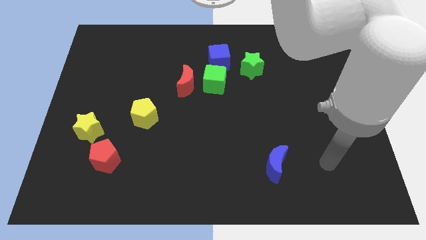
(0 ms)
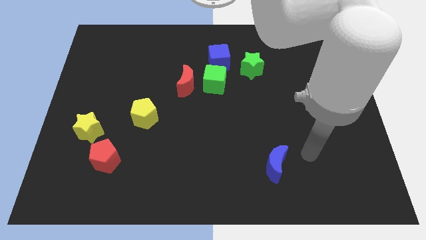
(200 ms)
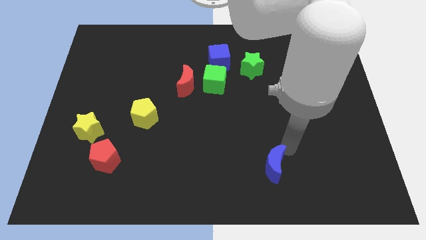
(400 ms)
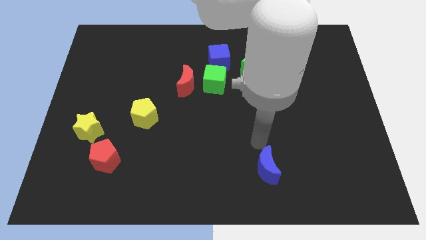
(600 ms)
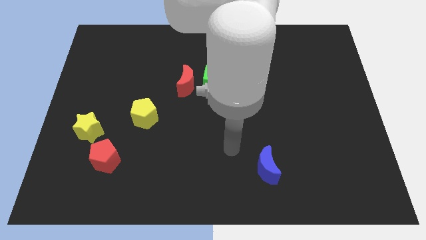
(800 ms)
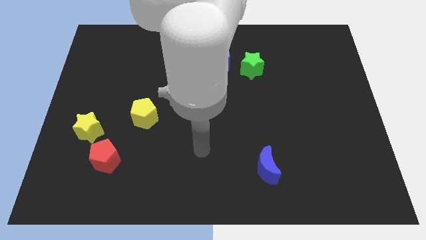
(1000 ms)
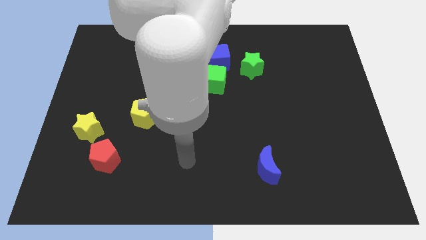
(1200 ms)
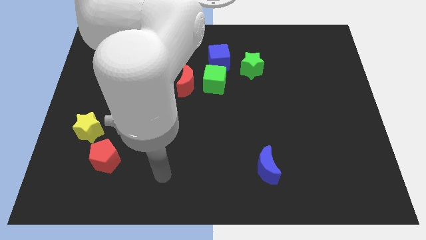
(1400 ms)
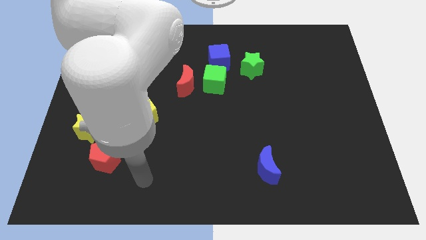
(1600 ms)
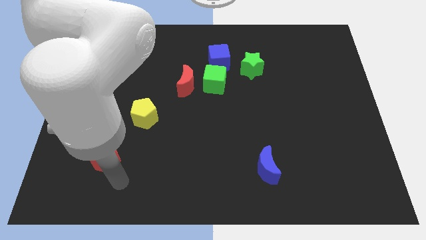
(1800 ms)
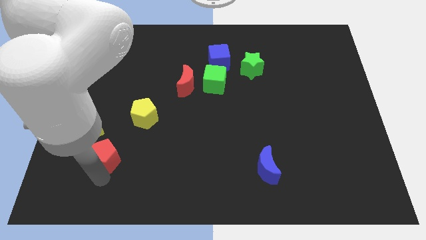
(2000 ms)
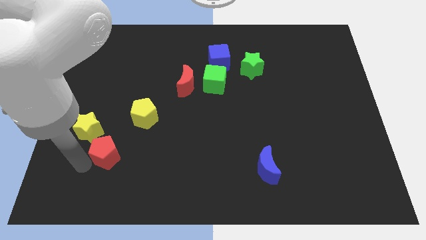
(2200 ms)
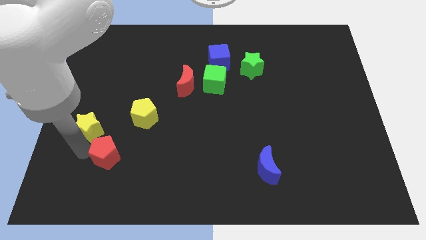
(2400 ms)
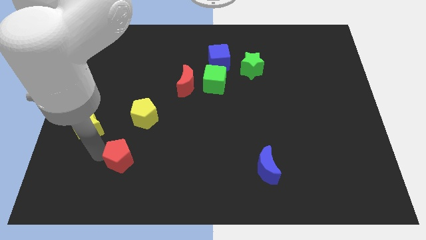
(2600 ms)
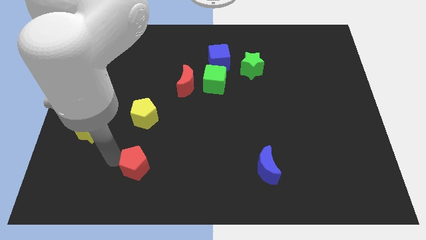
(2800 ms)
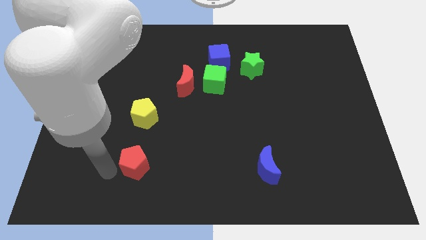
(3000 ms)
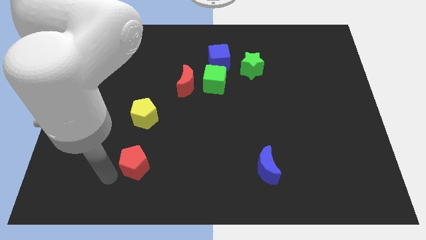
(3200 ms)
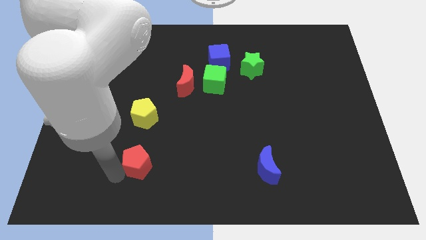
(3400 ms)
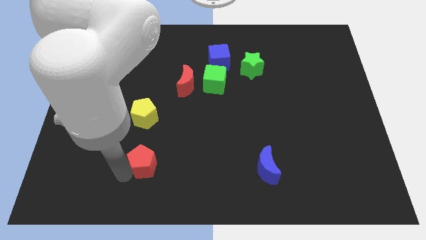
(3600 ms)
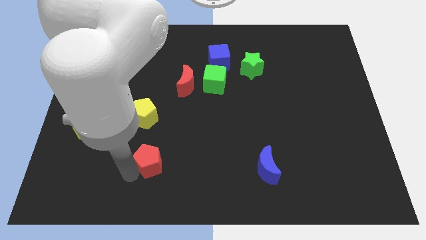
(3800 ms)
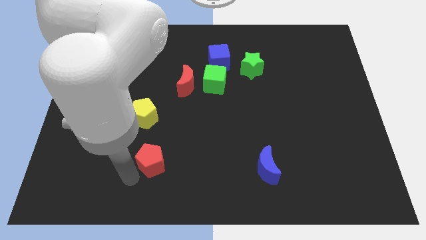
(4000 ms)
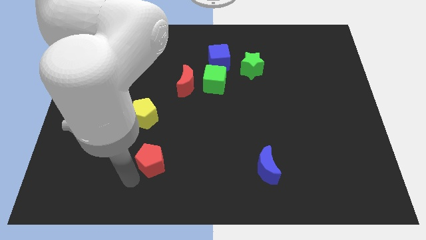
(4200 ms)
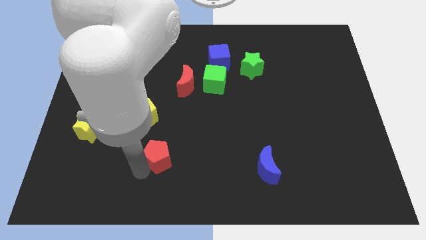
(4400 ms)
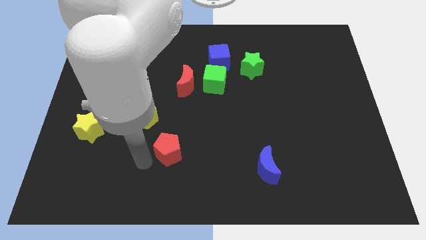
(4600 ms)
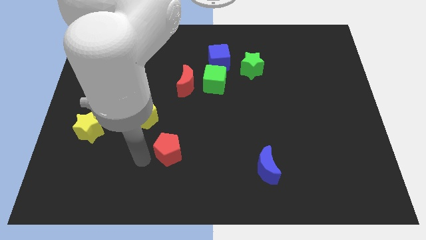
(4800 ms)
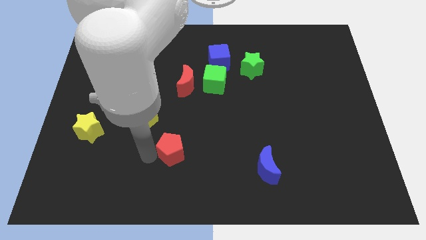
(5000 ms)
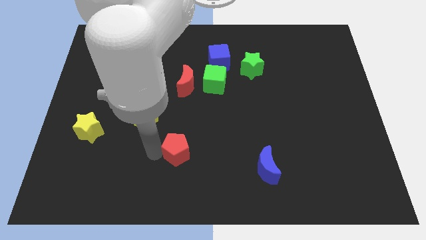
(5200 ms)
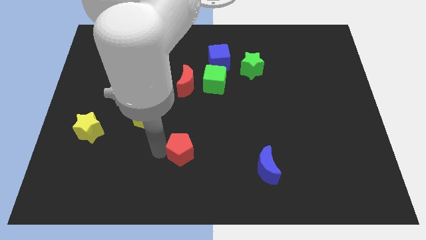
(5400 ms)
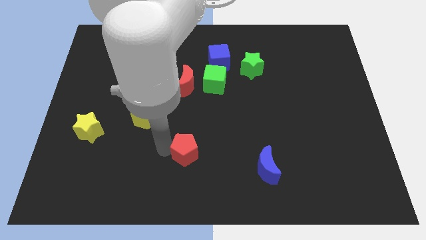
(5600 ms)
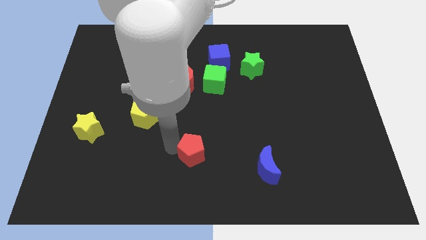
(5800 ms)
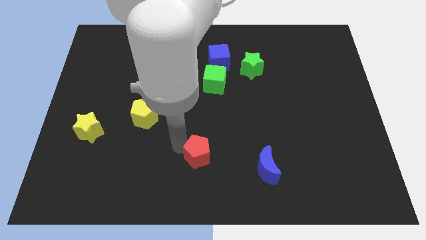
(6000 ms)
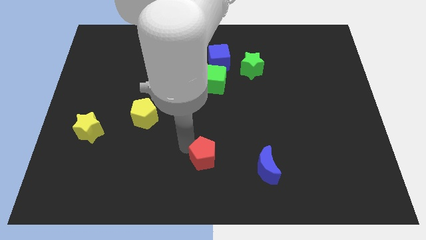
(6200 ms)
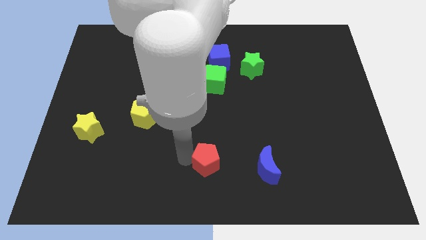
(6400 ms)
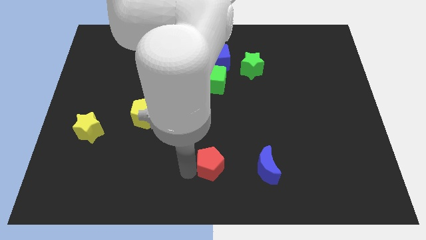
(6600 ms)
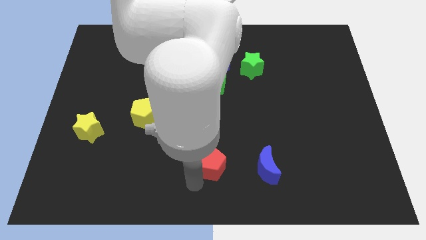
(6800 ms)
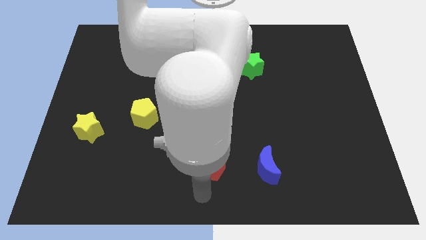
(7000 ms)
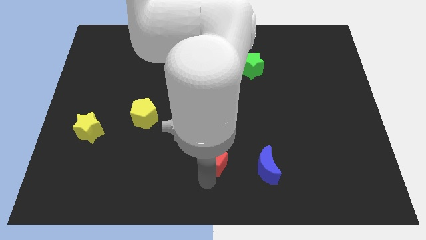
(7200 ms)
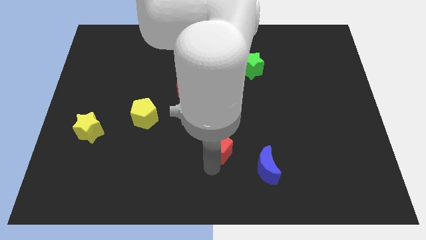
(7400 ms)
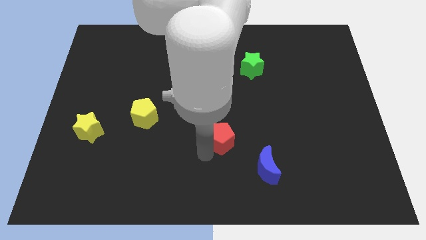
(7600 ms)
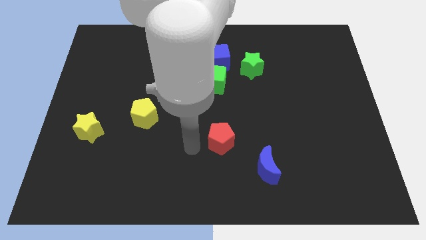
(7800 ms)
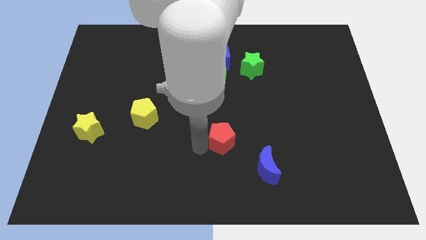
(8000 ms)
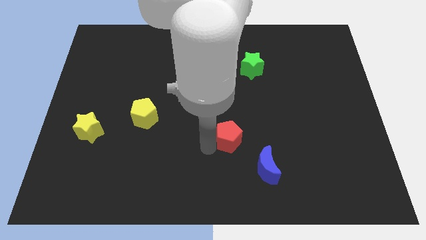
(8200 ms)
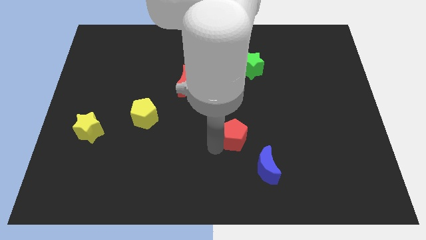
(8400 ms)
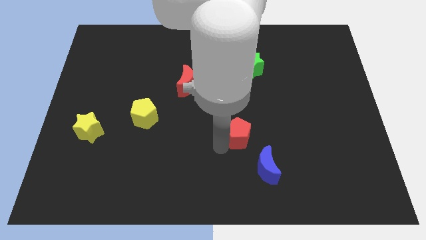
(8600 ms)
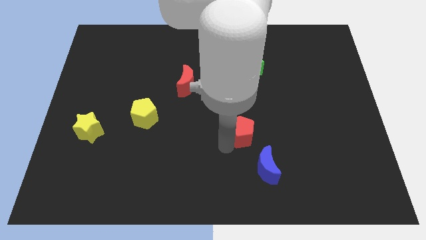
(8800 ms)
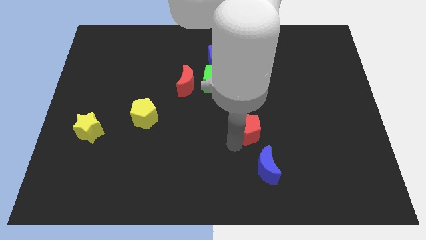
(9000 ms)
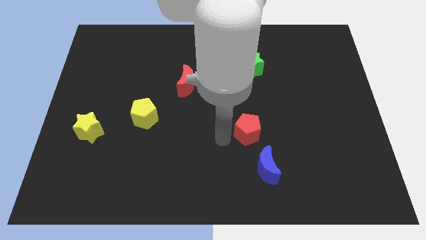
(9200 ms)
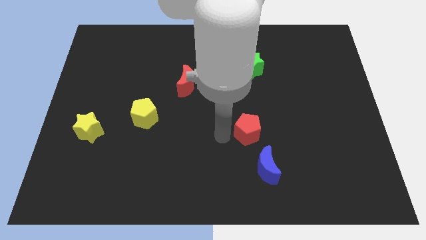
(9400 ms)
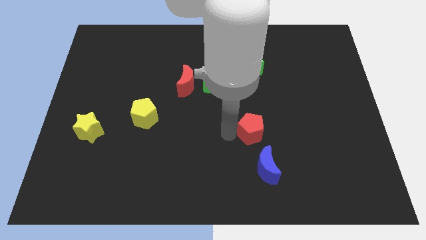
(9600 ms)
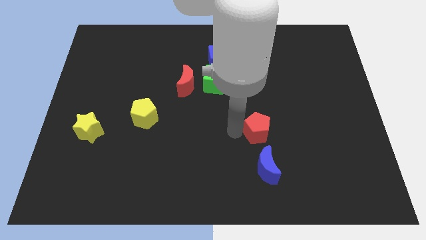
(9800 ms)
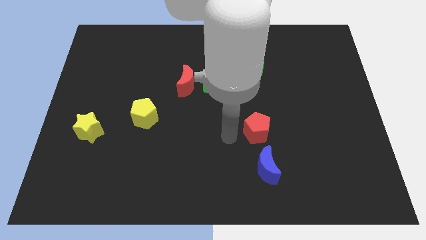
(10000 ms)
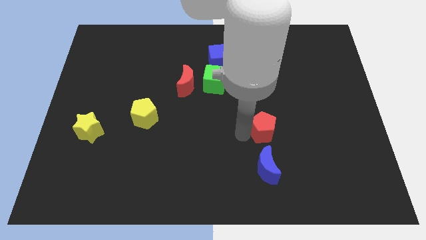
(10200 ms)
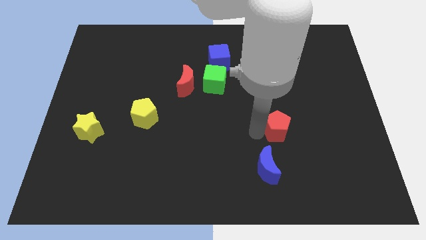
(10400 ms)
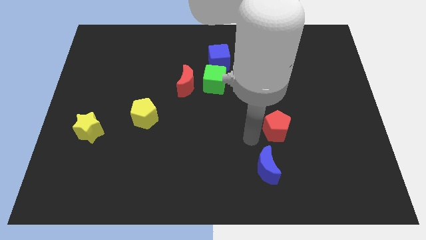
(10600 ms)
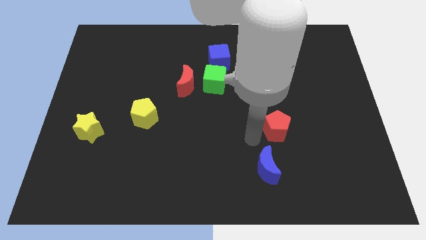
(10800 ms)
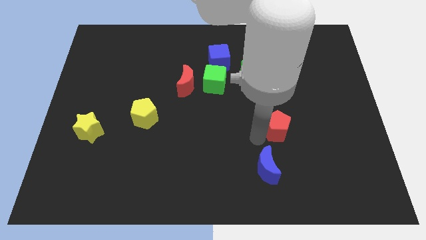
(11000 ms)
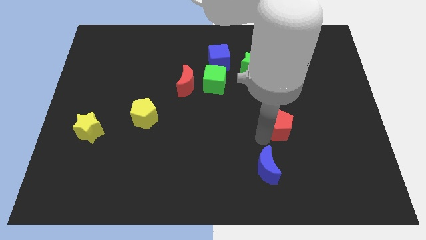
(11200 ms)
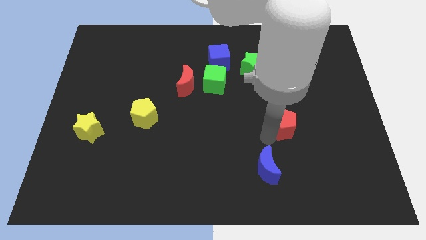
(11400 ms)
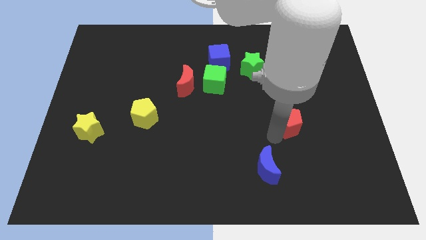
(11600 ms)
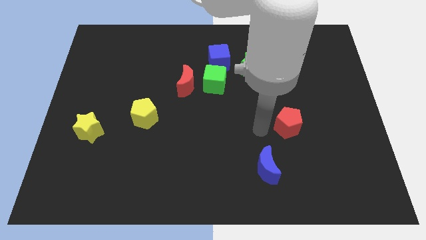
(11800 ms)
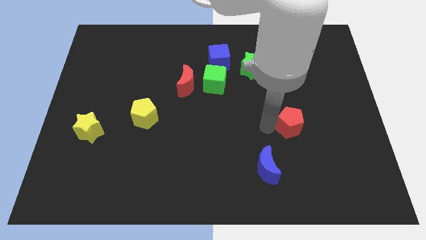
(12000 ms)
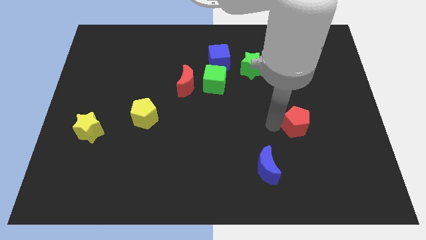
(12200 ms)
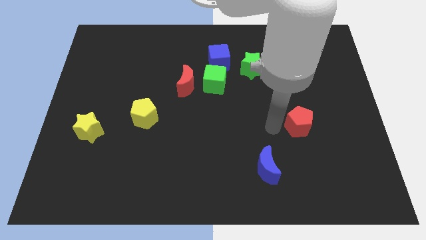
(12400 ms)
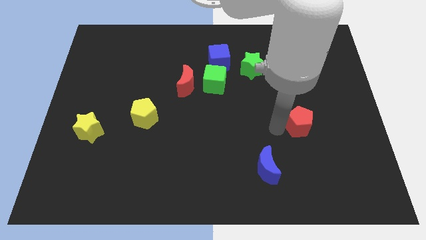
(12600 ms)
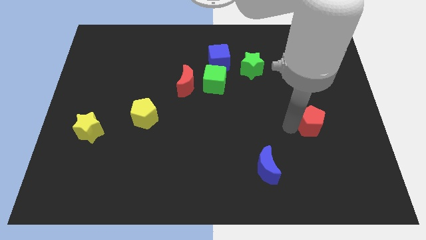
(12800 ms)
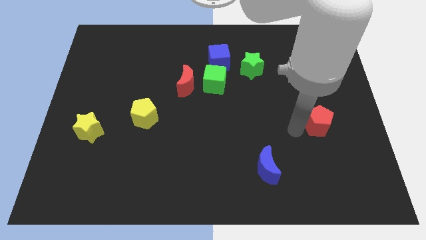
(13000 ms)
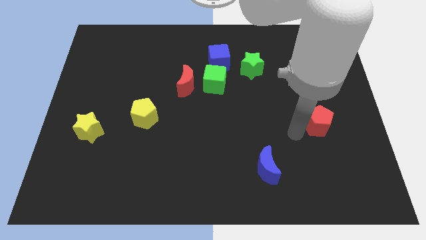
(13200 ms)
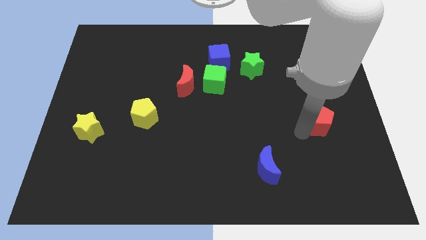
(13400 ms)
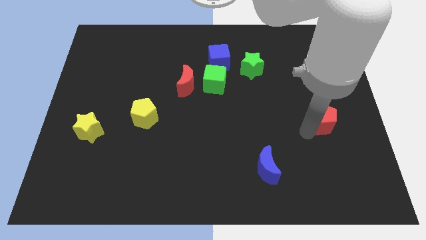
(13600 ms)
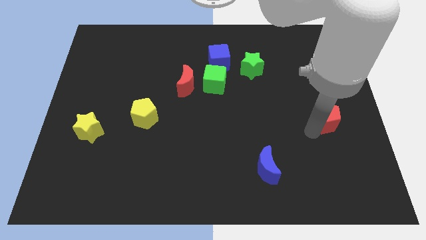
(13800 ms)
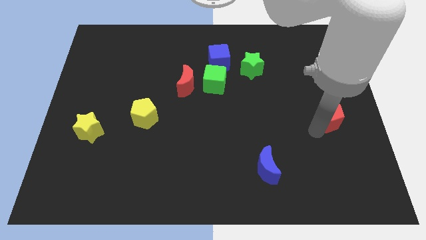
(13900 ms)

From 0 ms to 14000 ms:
push the red pentagon to the right side
